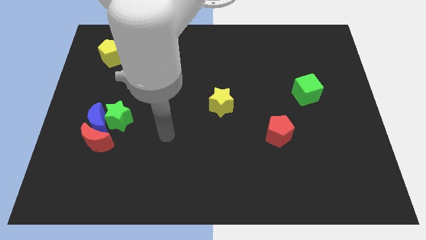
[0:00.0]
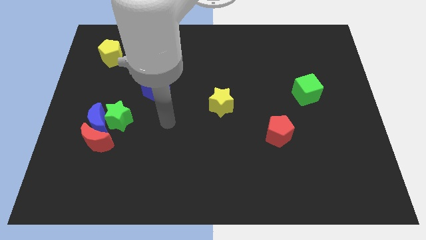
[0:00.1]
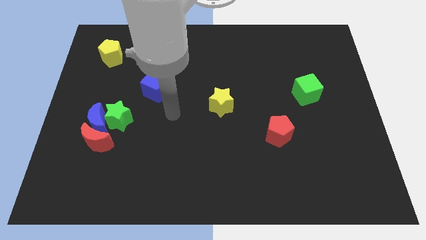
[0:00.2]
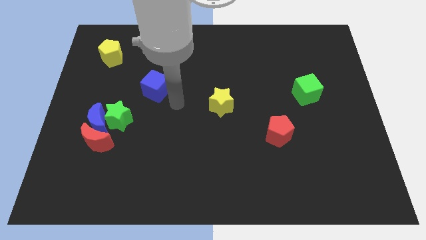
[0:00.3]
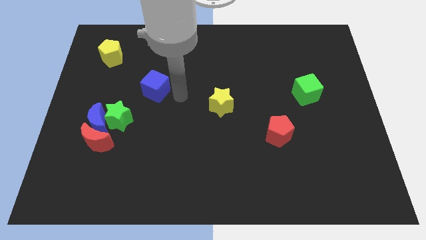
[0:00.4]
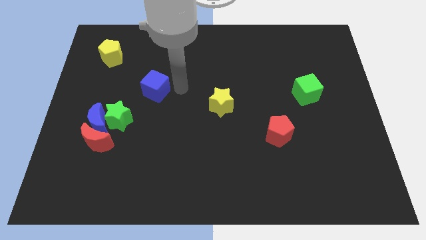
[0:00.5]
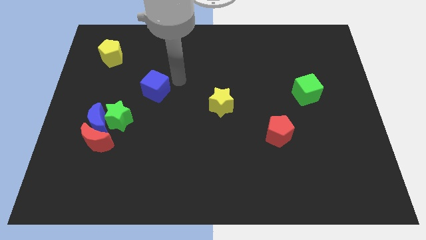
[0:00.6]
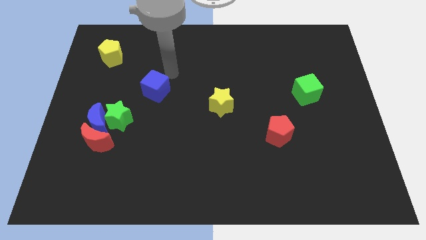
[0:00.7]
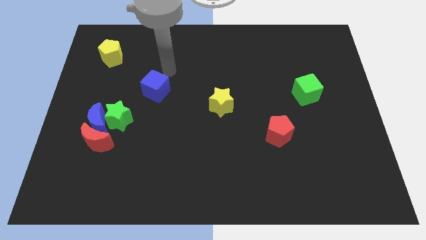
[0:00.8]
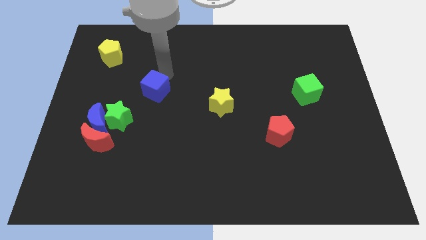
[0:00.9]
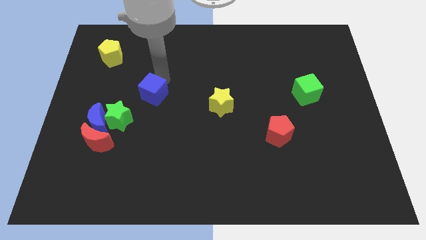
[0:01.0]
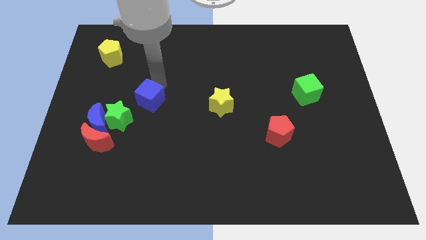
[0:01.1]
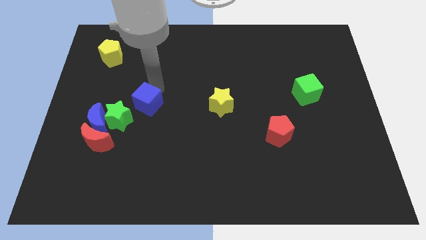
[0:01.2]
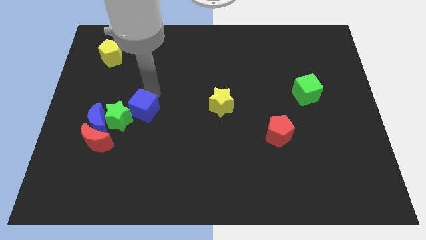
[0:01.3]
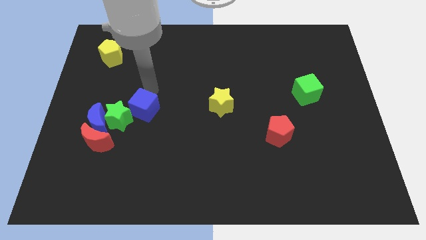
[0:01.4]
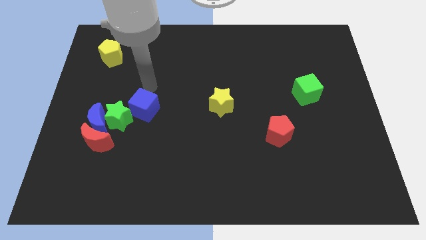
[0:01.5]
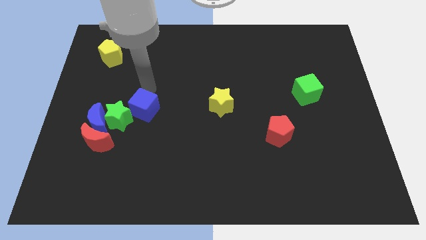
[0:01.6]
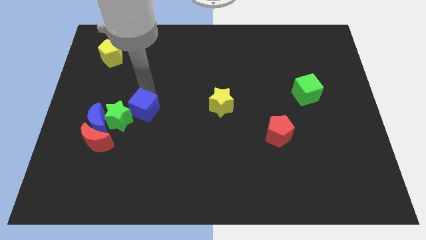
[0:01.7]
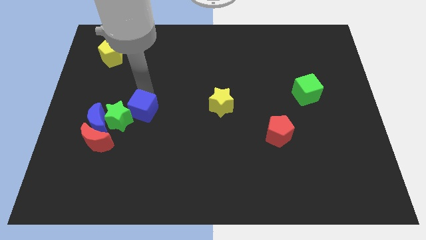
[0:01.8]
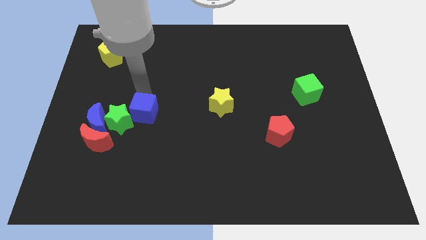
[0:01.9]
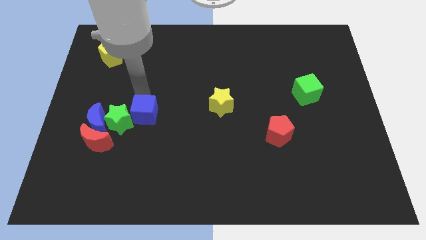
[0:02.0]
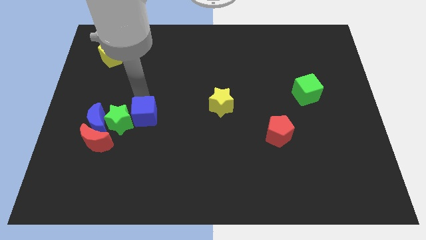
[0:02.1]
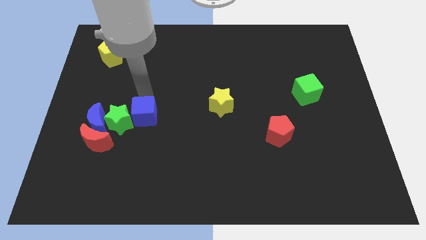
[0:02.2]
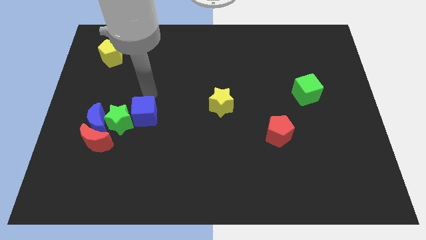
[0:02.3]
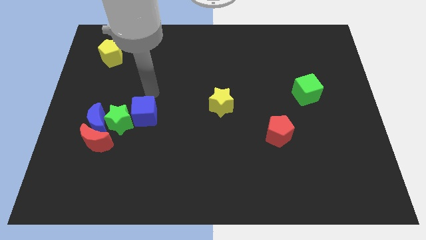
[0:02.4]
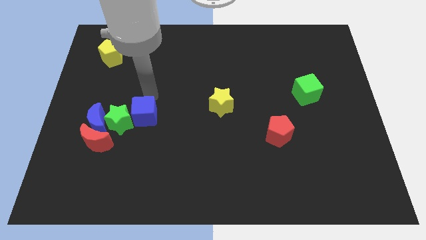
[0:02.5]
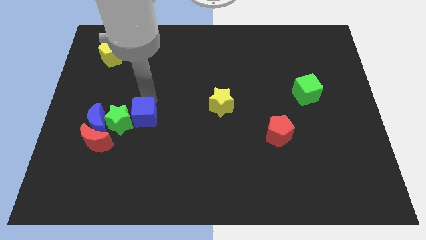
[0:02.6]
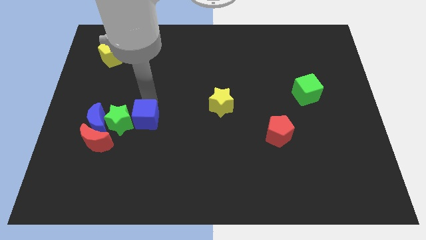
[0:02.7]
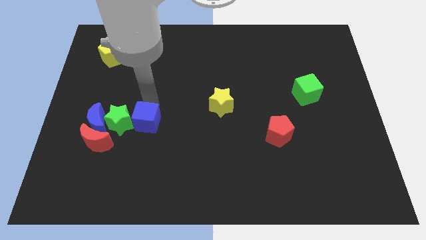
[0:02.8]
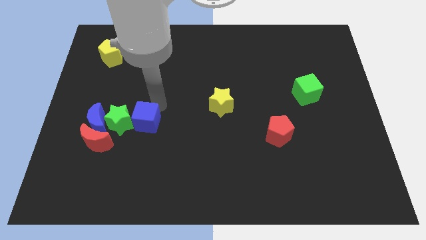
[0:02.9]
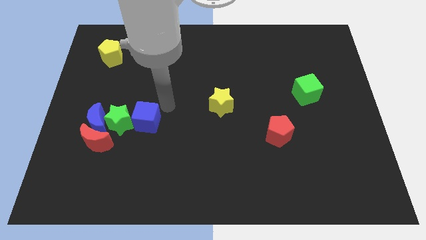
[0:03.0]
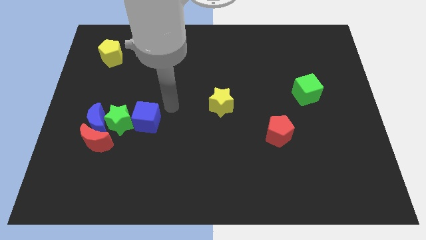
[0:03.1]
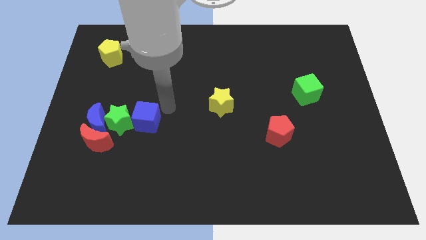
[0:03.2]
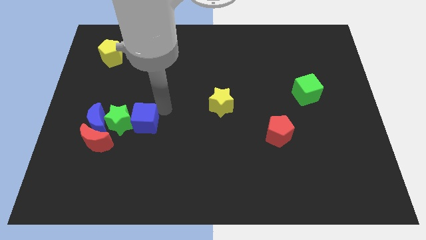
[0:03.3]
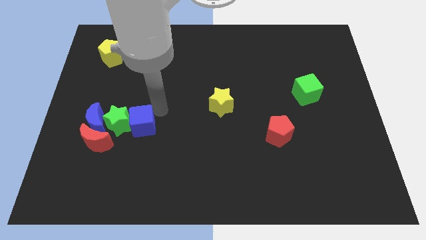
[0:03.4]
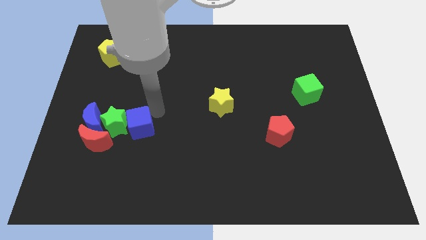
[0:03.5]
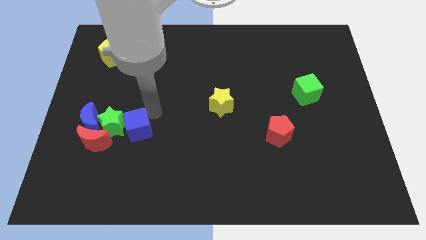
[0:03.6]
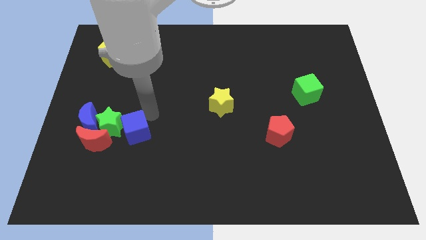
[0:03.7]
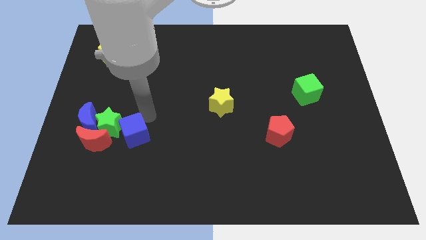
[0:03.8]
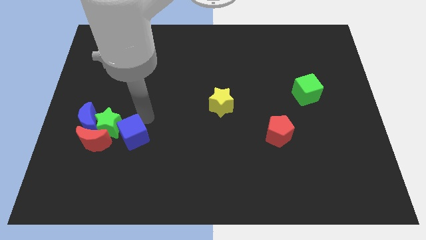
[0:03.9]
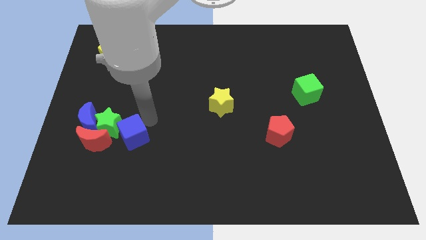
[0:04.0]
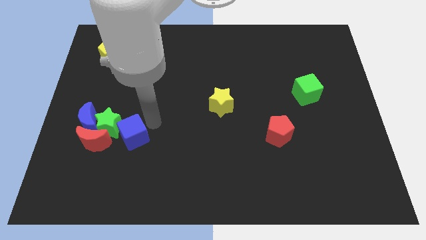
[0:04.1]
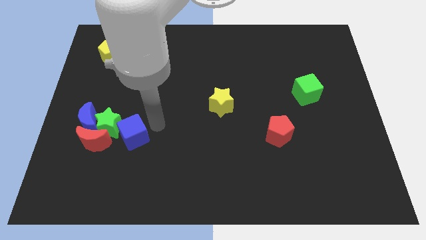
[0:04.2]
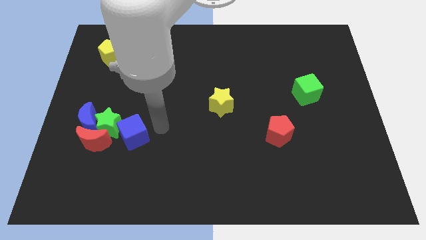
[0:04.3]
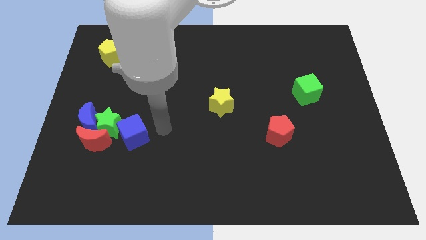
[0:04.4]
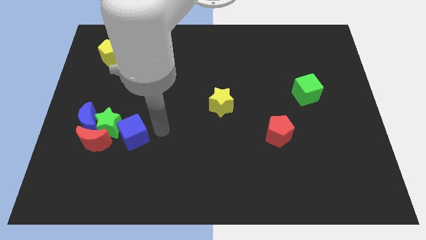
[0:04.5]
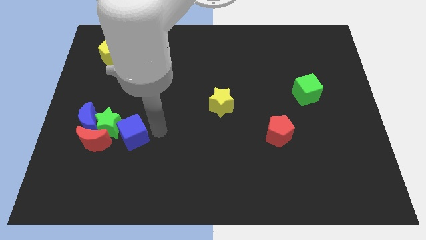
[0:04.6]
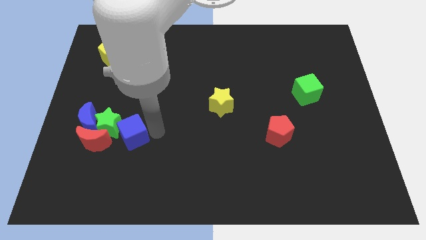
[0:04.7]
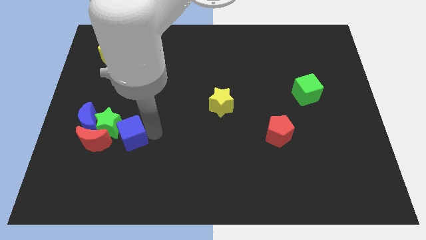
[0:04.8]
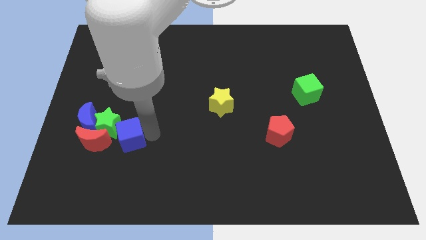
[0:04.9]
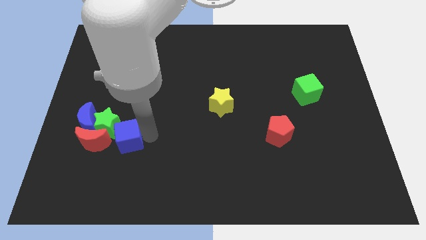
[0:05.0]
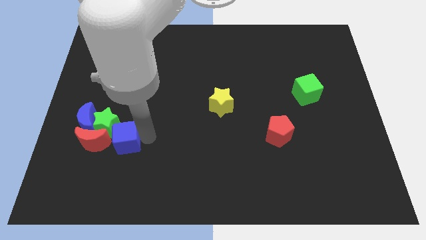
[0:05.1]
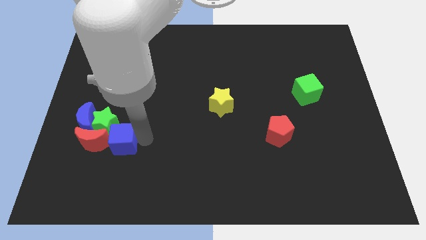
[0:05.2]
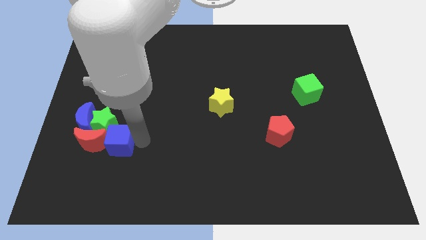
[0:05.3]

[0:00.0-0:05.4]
move the blue cube next to the red moon

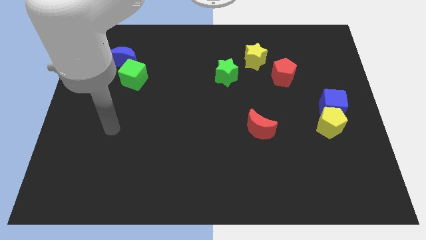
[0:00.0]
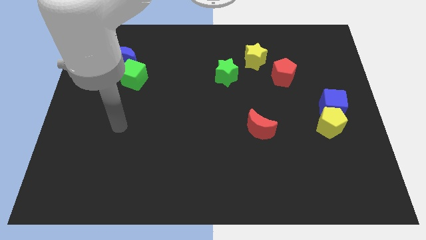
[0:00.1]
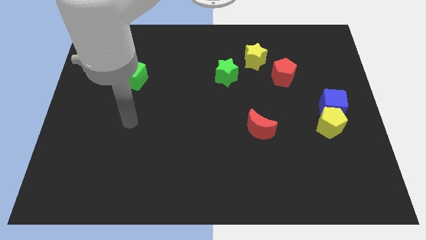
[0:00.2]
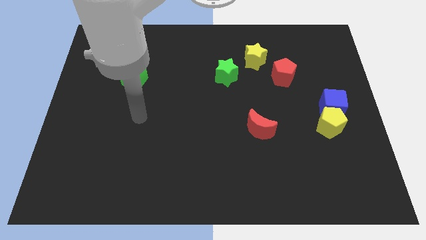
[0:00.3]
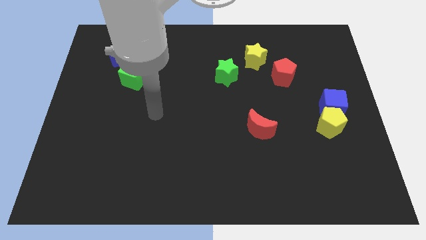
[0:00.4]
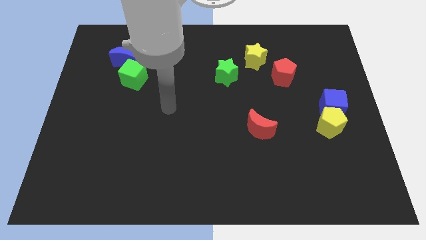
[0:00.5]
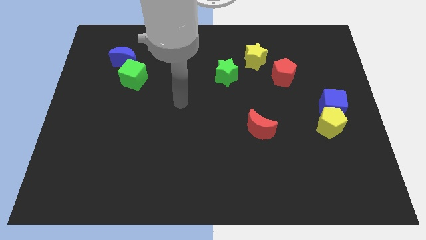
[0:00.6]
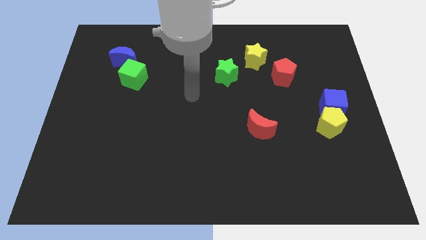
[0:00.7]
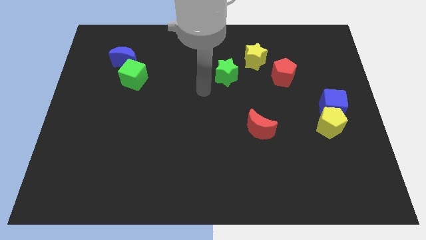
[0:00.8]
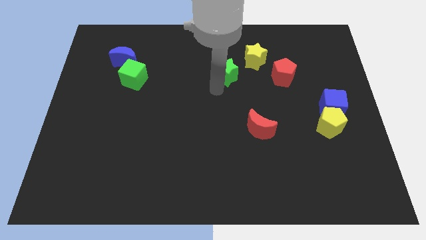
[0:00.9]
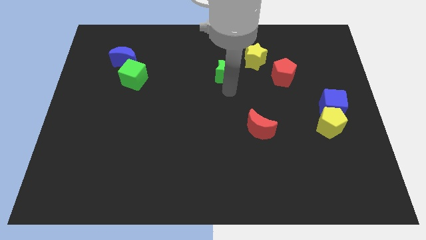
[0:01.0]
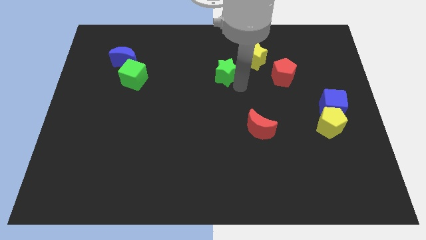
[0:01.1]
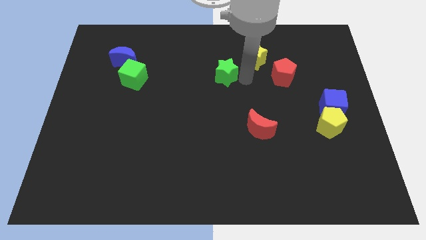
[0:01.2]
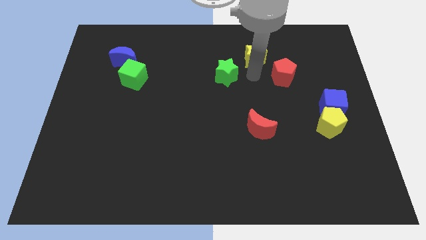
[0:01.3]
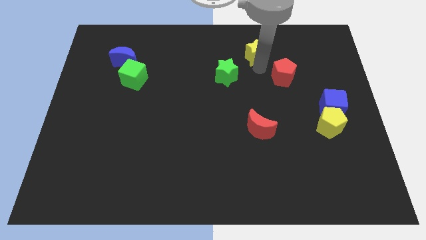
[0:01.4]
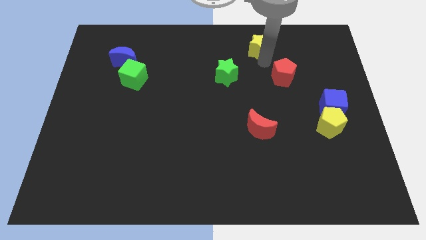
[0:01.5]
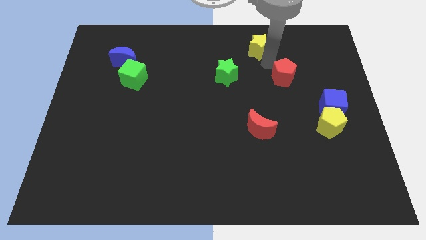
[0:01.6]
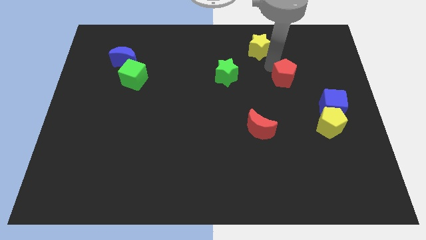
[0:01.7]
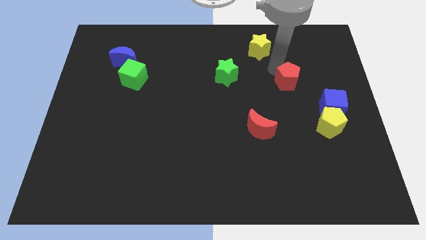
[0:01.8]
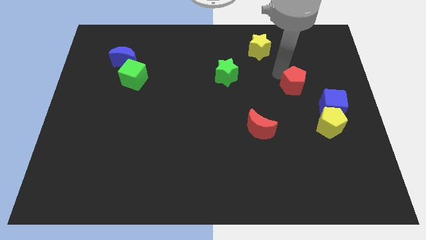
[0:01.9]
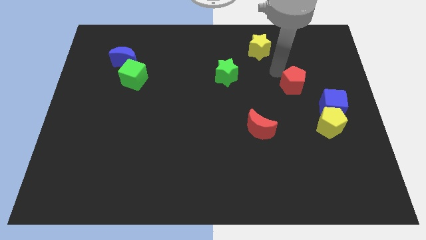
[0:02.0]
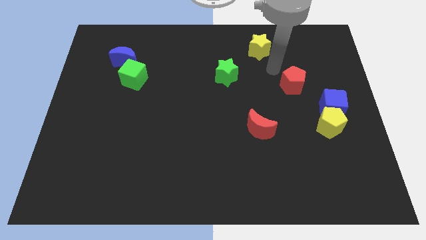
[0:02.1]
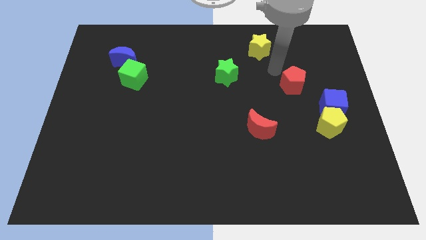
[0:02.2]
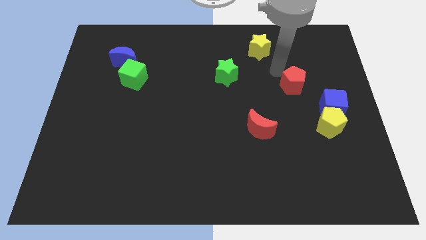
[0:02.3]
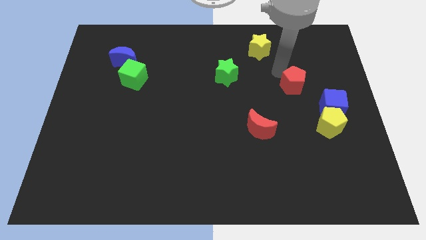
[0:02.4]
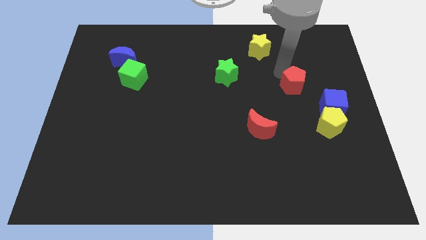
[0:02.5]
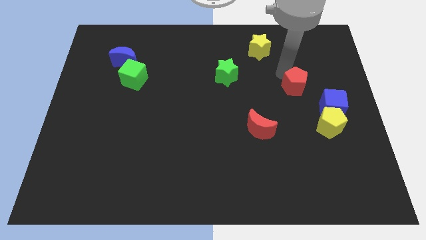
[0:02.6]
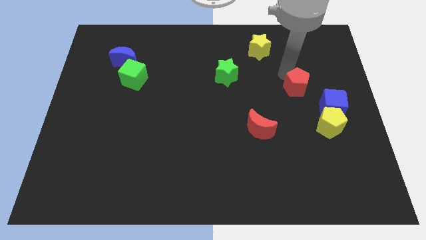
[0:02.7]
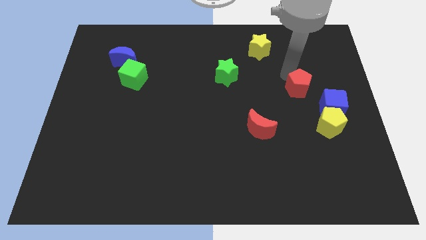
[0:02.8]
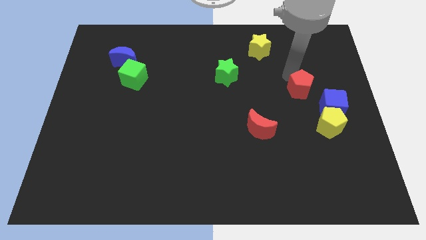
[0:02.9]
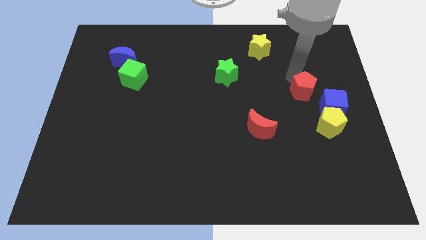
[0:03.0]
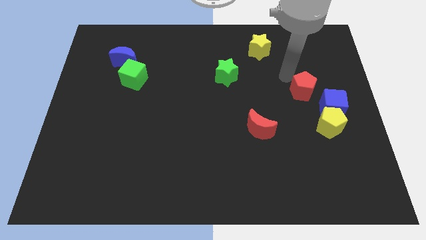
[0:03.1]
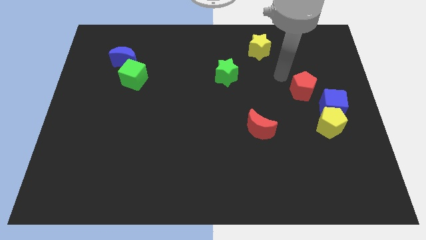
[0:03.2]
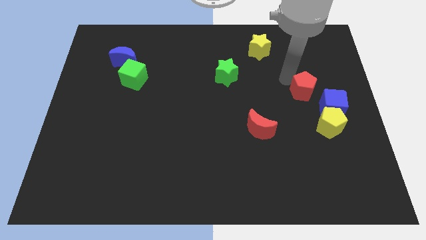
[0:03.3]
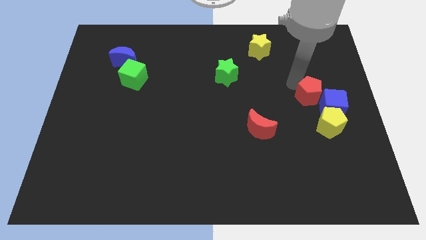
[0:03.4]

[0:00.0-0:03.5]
move the red pentagon next to the blue cube
